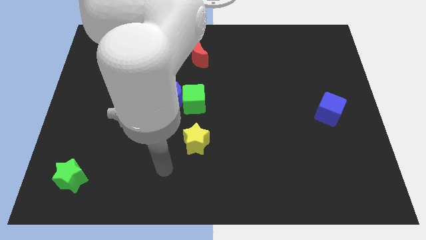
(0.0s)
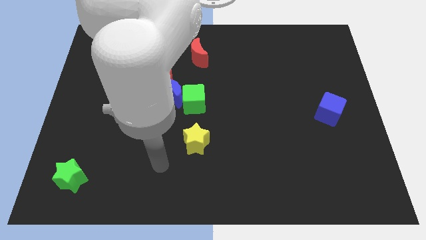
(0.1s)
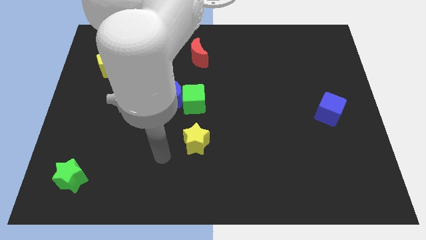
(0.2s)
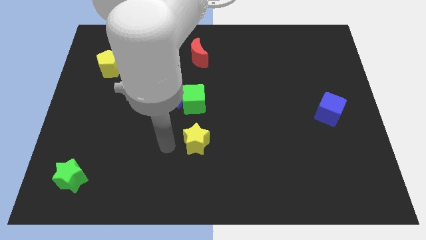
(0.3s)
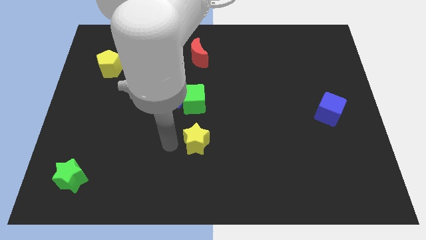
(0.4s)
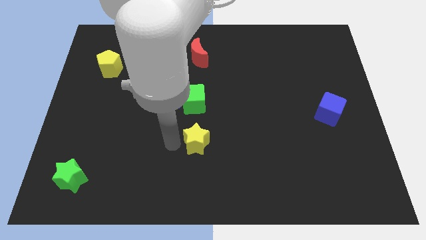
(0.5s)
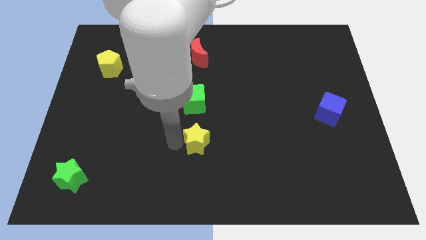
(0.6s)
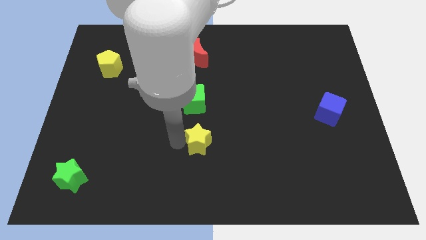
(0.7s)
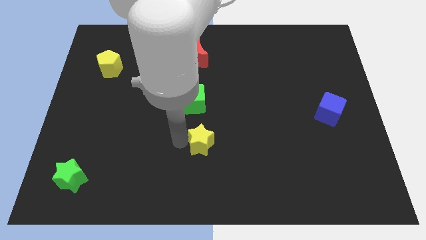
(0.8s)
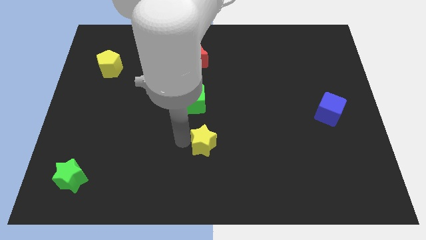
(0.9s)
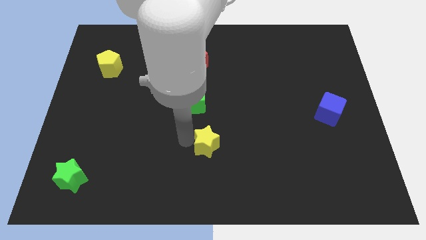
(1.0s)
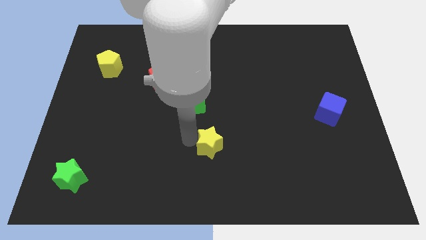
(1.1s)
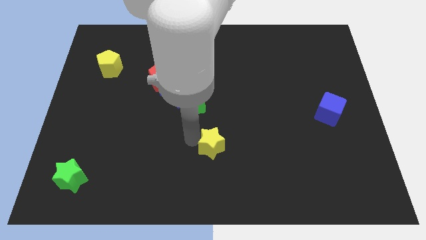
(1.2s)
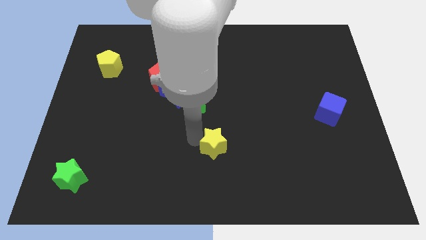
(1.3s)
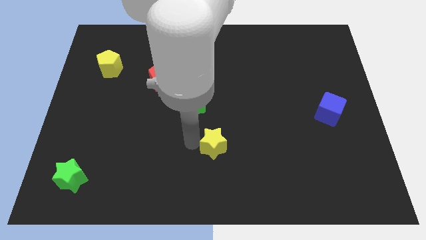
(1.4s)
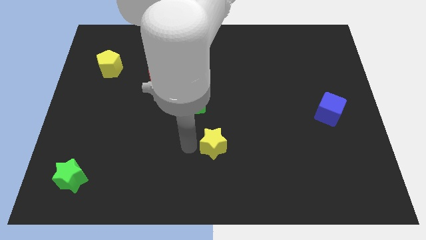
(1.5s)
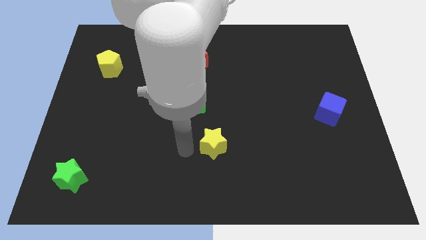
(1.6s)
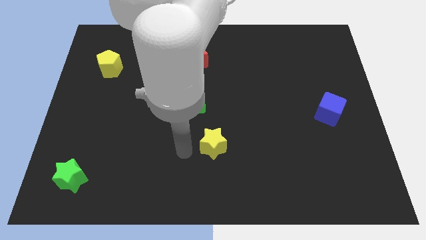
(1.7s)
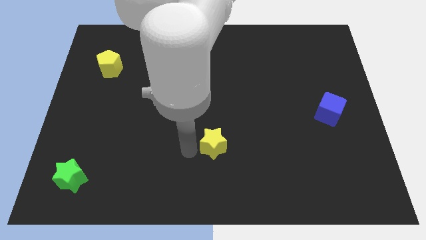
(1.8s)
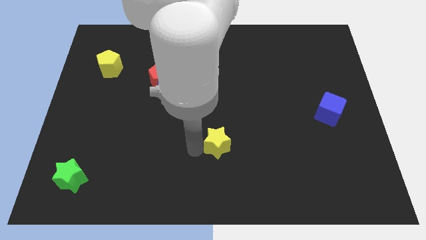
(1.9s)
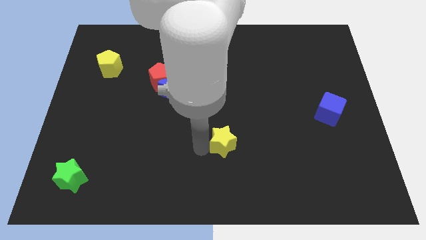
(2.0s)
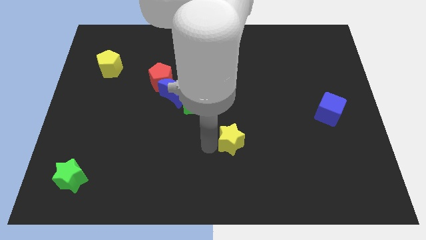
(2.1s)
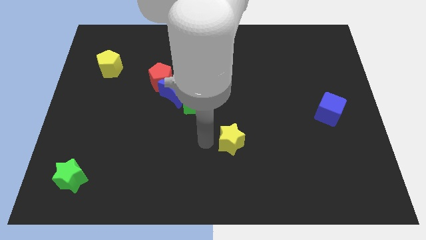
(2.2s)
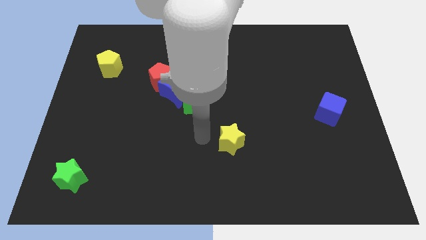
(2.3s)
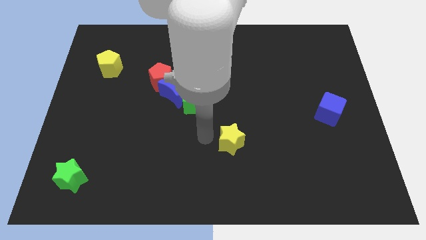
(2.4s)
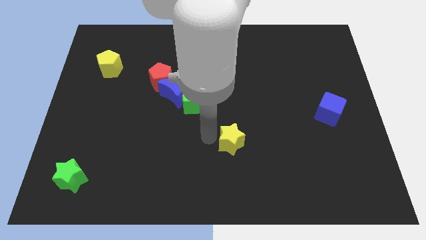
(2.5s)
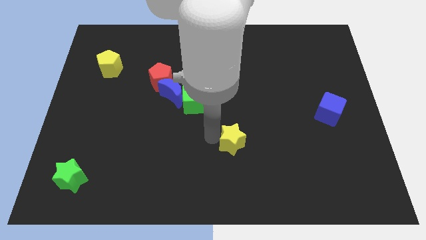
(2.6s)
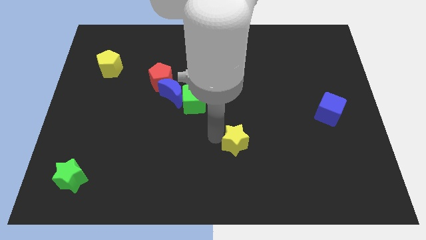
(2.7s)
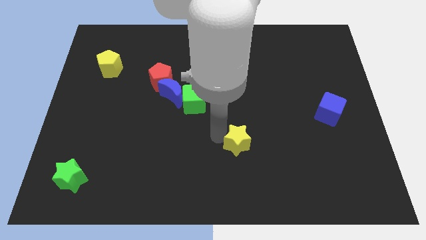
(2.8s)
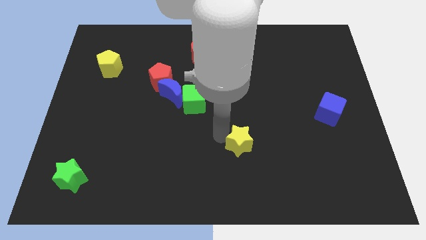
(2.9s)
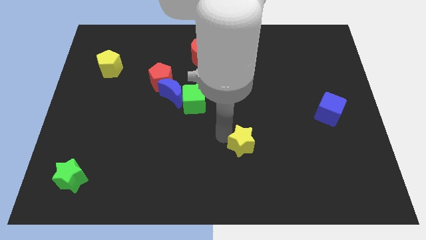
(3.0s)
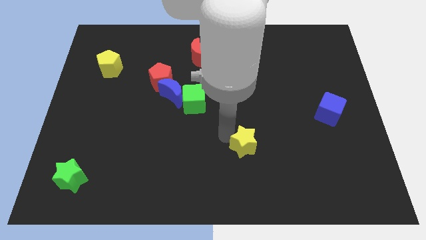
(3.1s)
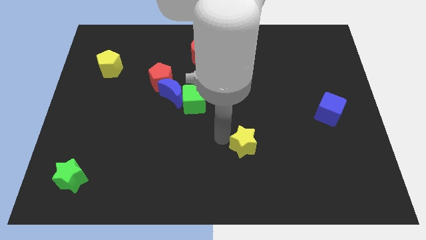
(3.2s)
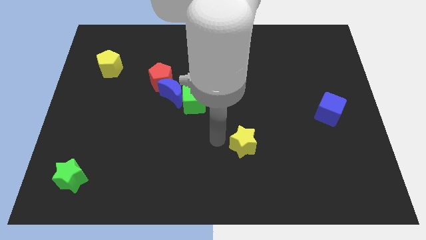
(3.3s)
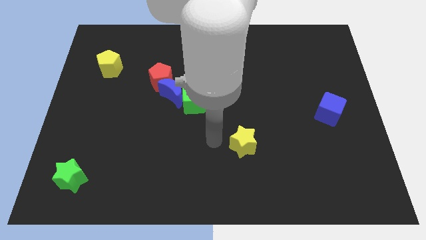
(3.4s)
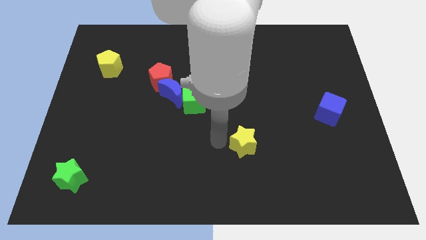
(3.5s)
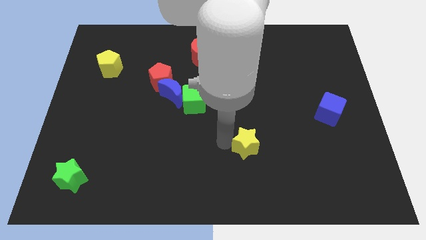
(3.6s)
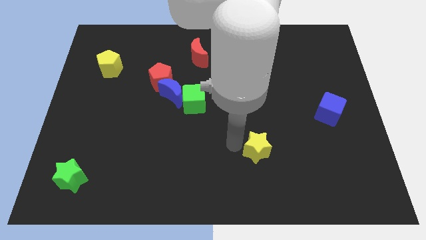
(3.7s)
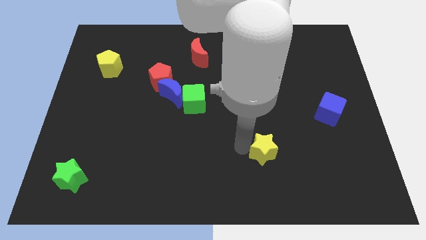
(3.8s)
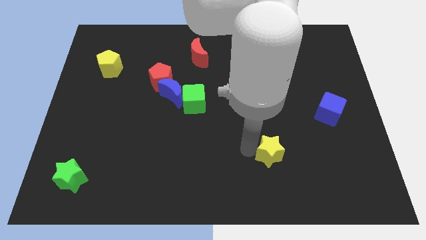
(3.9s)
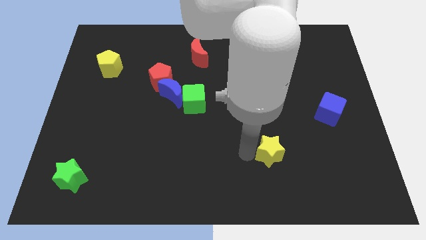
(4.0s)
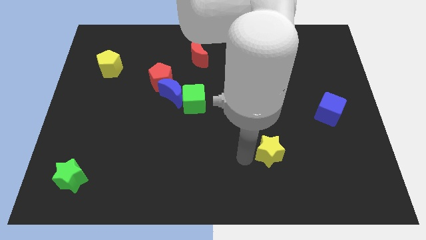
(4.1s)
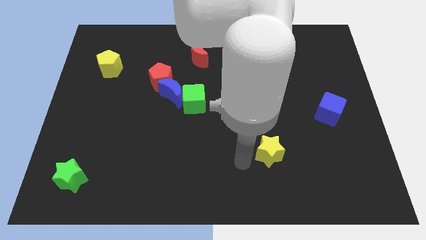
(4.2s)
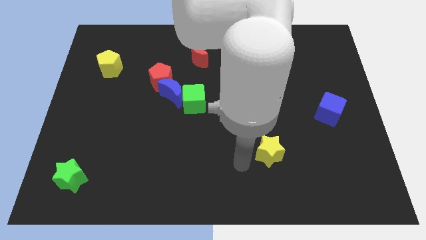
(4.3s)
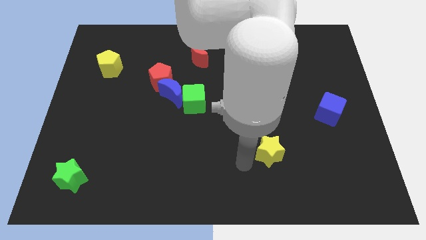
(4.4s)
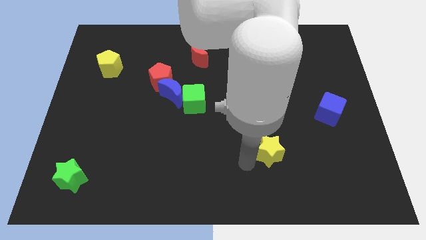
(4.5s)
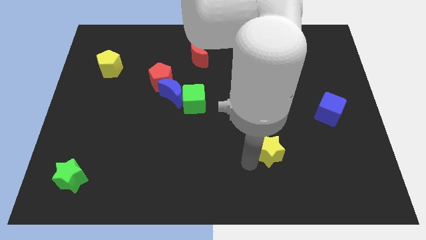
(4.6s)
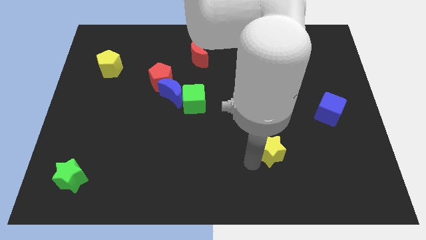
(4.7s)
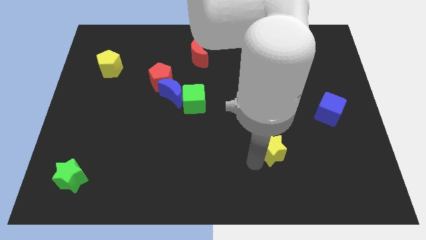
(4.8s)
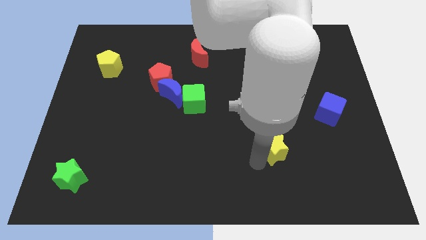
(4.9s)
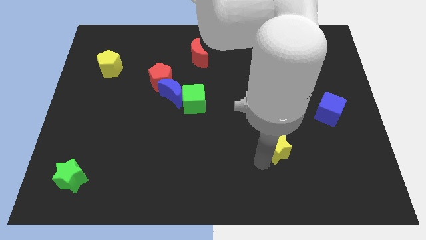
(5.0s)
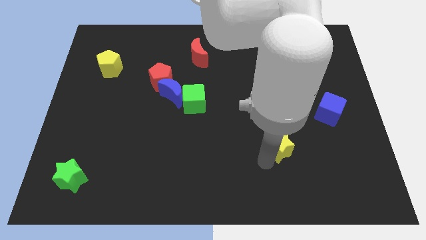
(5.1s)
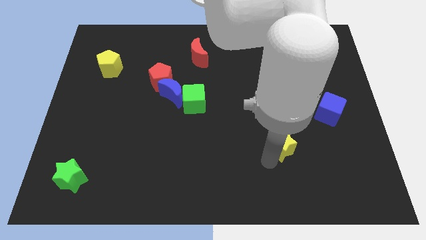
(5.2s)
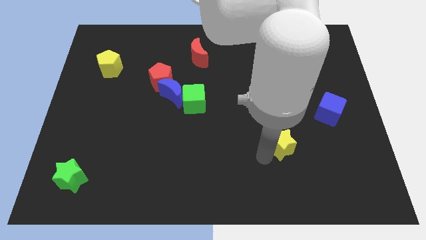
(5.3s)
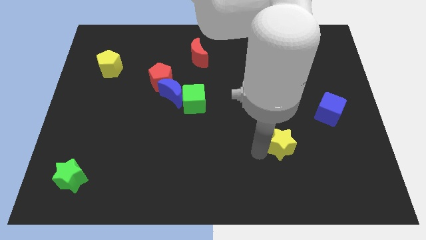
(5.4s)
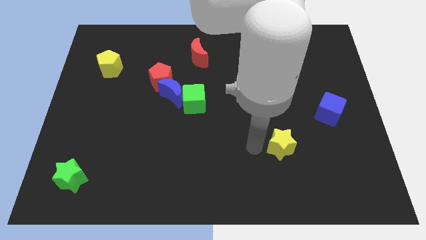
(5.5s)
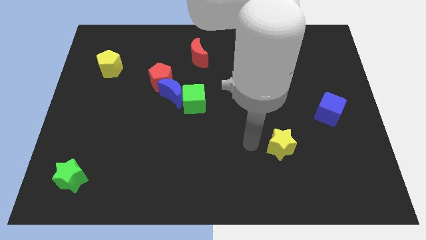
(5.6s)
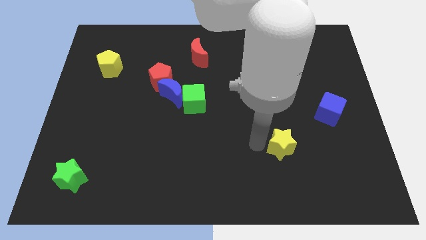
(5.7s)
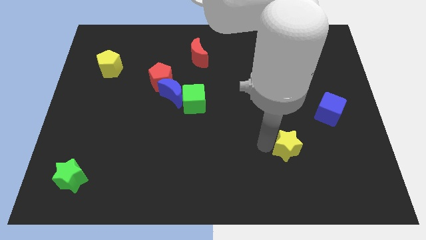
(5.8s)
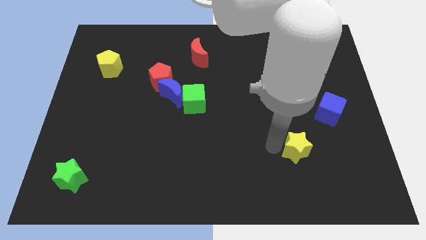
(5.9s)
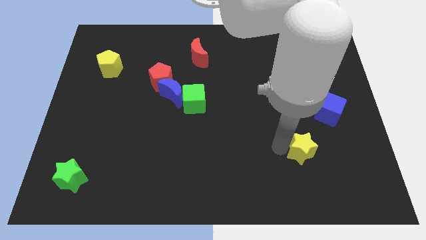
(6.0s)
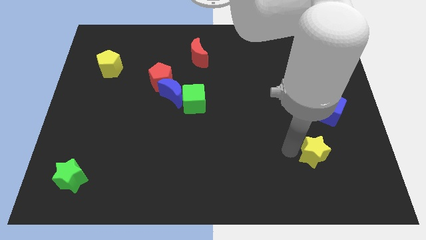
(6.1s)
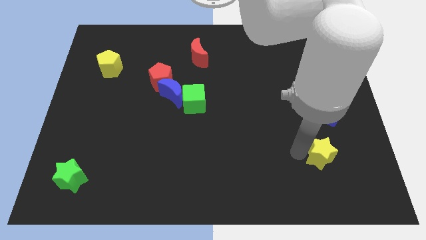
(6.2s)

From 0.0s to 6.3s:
move the yellow star to the bottom side of the blue cube
